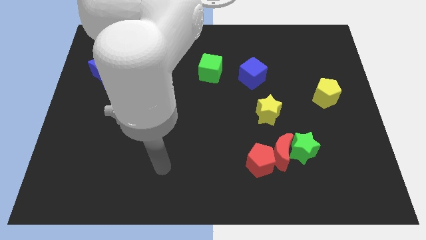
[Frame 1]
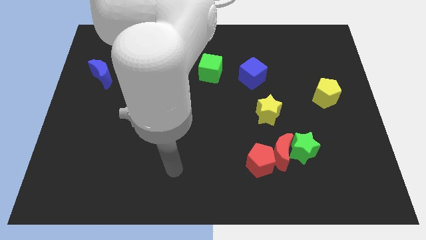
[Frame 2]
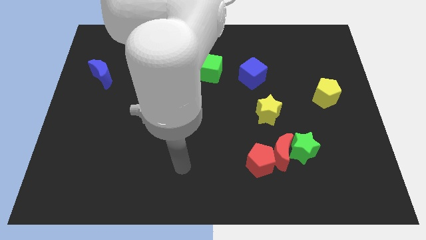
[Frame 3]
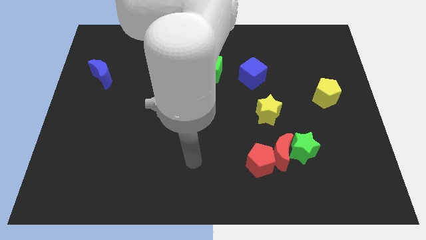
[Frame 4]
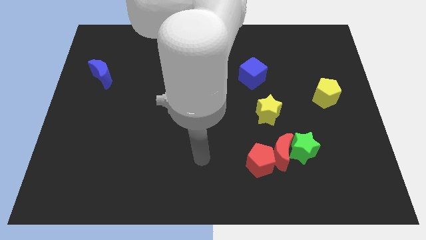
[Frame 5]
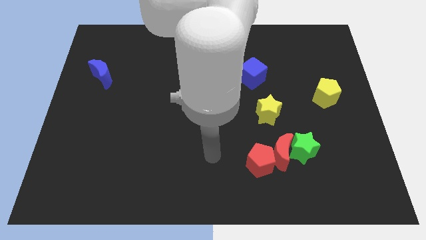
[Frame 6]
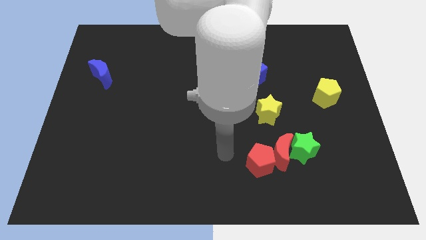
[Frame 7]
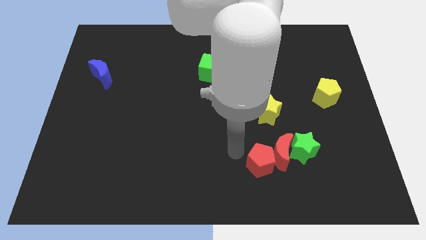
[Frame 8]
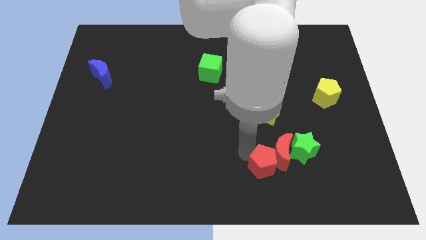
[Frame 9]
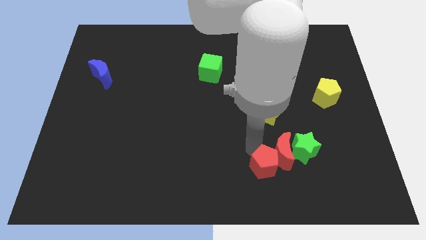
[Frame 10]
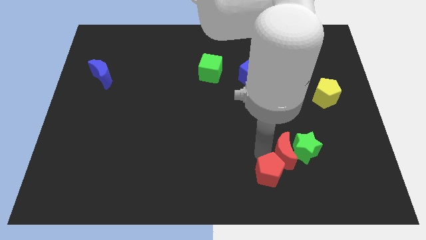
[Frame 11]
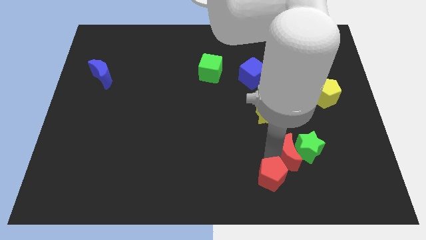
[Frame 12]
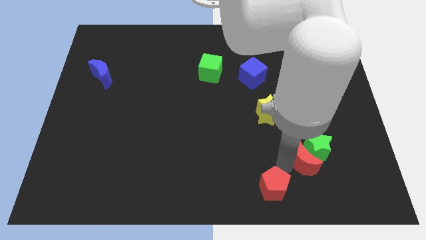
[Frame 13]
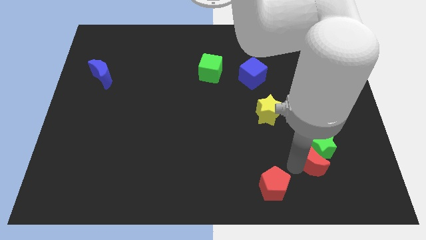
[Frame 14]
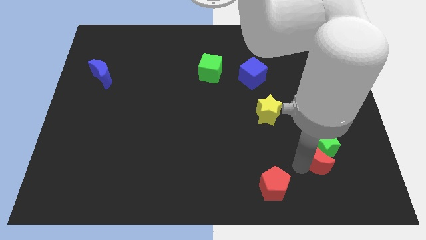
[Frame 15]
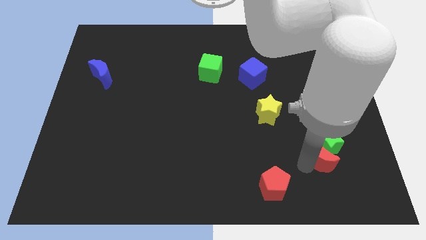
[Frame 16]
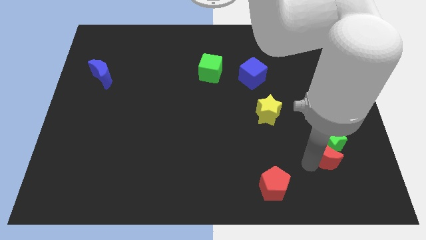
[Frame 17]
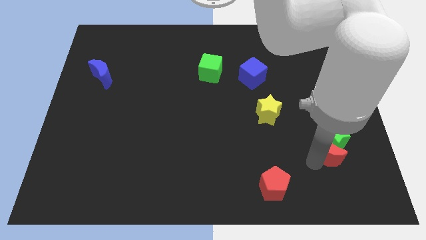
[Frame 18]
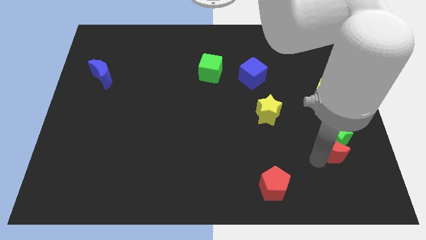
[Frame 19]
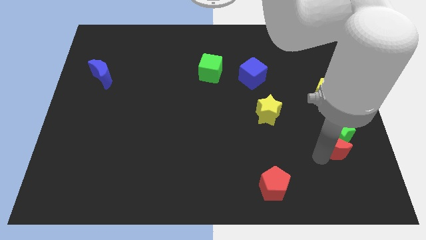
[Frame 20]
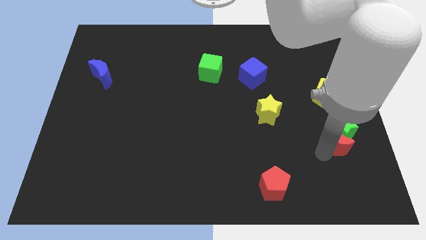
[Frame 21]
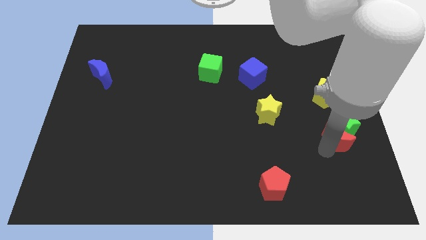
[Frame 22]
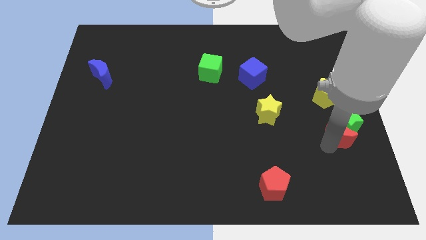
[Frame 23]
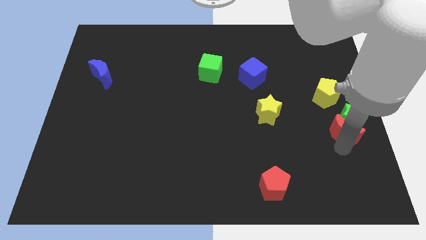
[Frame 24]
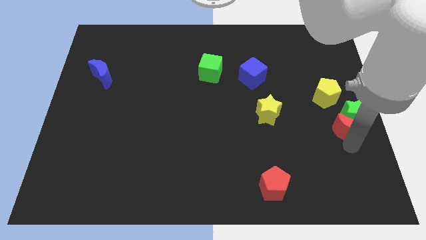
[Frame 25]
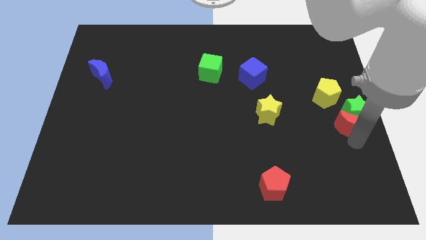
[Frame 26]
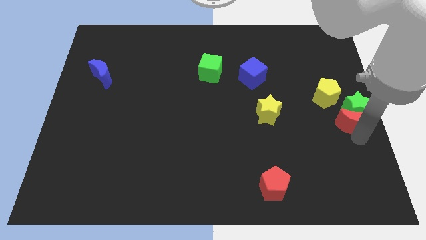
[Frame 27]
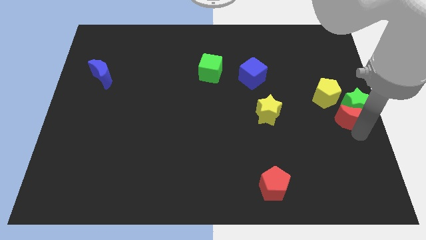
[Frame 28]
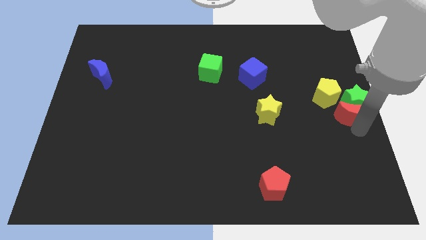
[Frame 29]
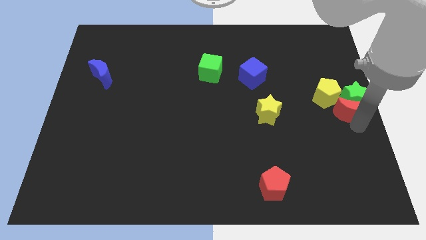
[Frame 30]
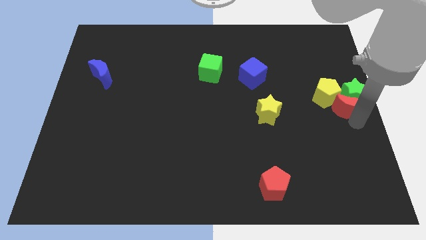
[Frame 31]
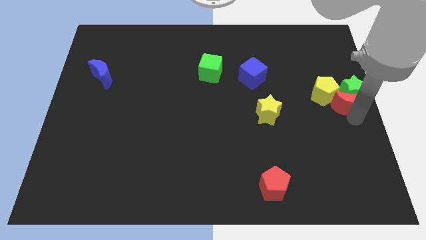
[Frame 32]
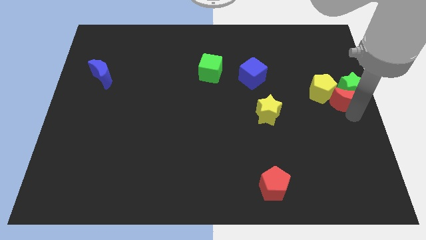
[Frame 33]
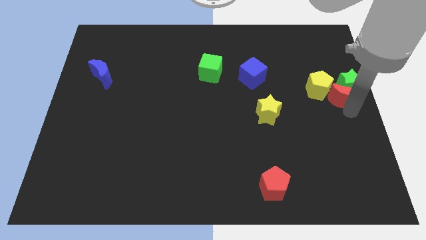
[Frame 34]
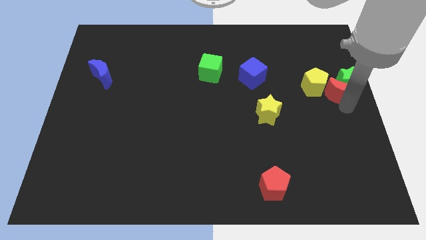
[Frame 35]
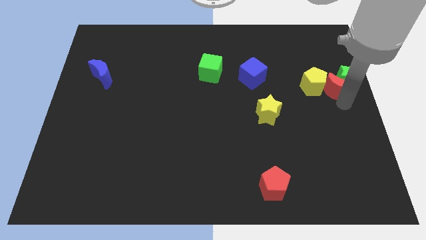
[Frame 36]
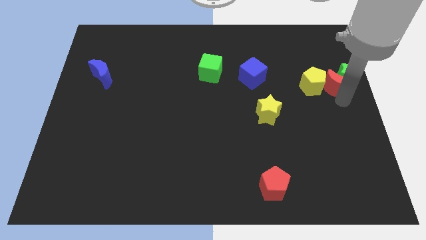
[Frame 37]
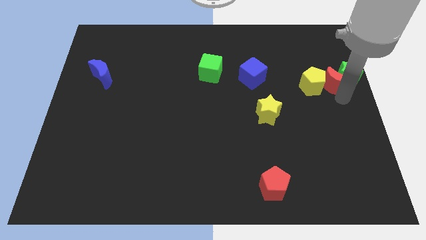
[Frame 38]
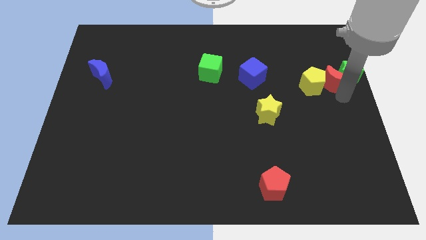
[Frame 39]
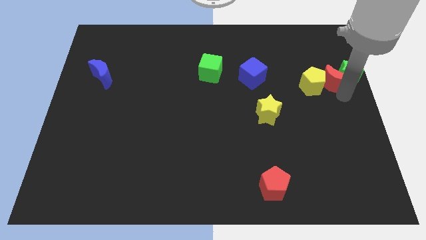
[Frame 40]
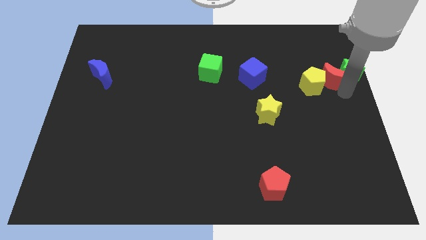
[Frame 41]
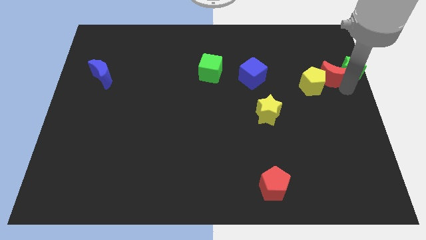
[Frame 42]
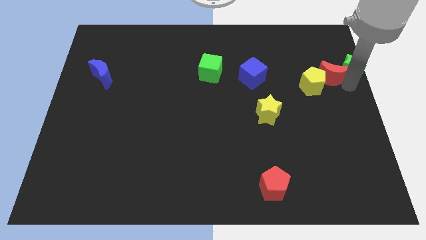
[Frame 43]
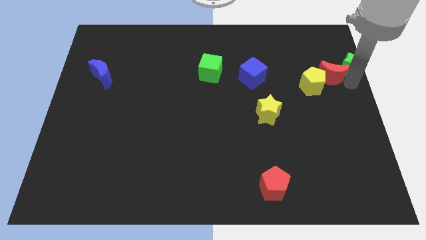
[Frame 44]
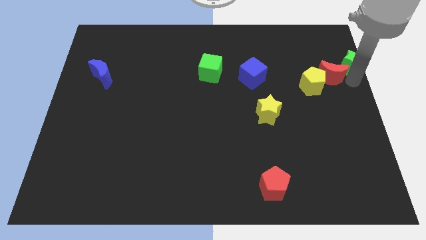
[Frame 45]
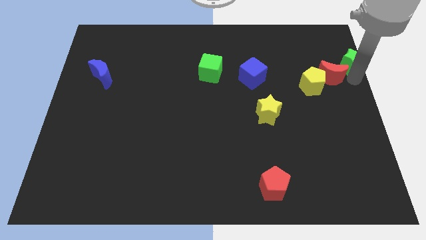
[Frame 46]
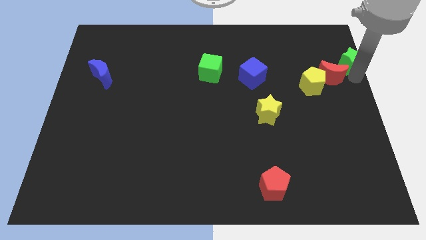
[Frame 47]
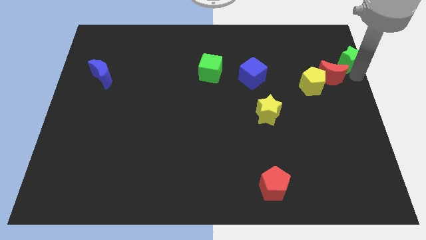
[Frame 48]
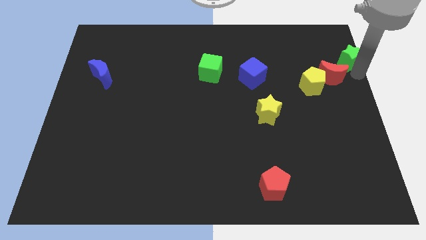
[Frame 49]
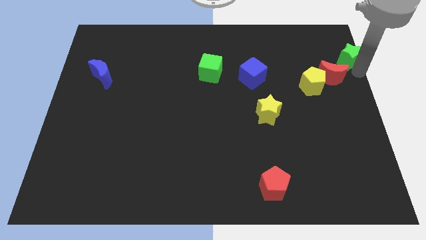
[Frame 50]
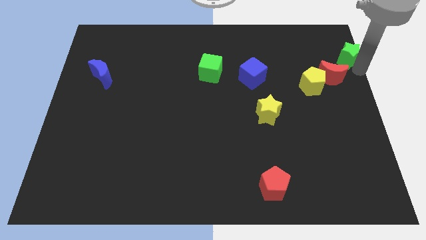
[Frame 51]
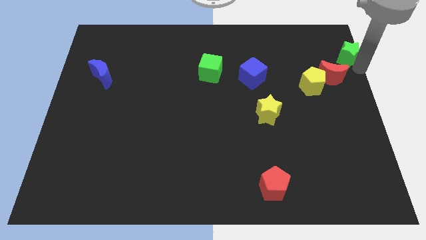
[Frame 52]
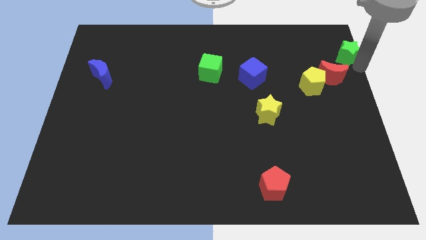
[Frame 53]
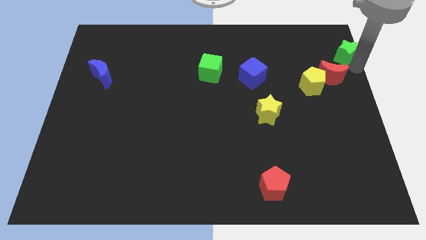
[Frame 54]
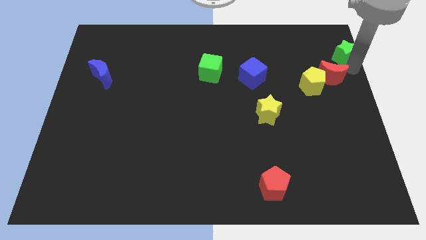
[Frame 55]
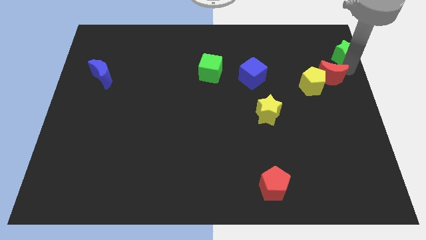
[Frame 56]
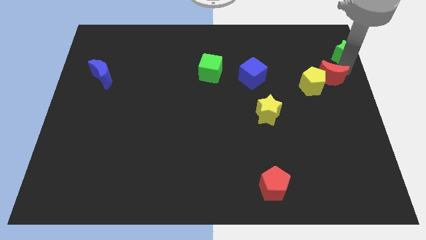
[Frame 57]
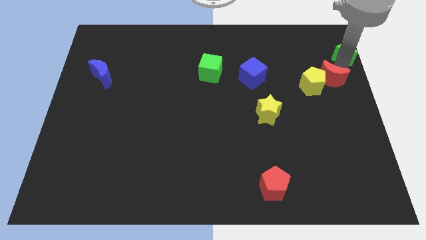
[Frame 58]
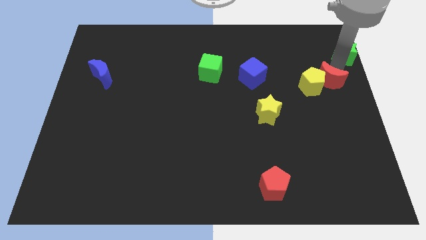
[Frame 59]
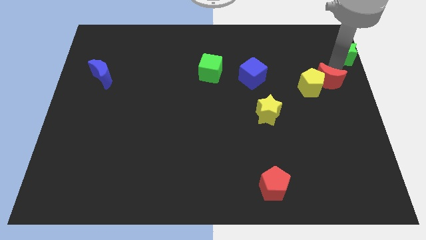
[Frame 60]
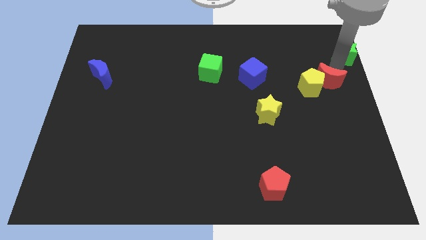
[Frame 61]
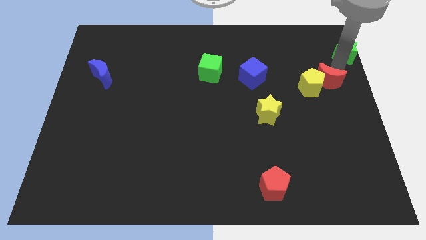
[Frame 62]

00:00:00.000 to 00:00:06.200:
push the green star to the top right

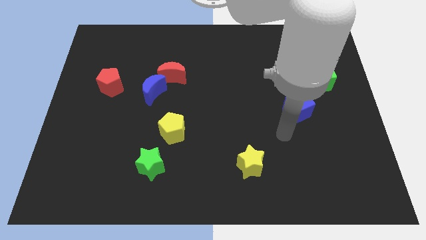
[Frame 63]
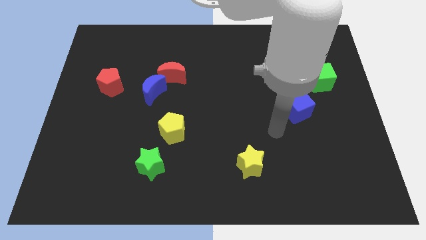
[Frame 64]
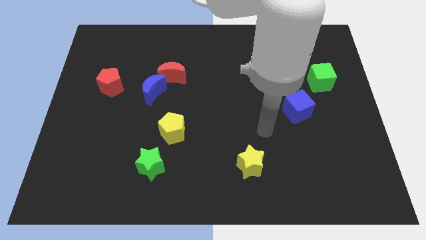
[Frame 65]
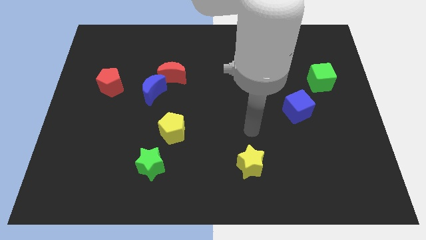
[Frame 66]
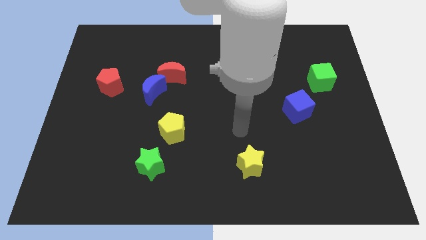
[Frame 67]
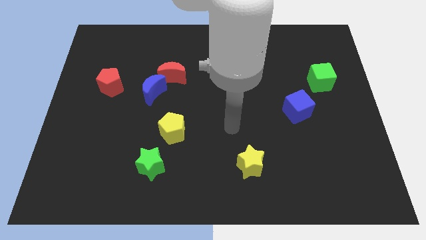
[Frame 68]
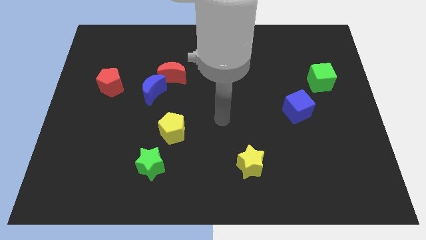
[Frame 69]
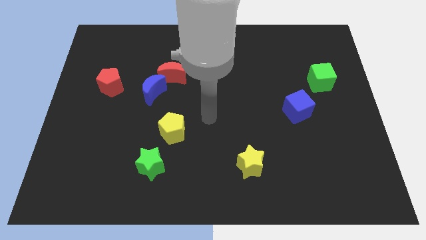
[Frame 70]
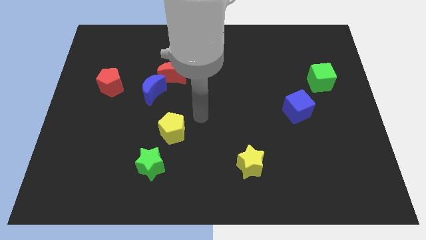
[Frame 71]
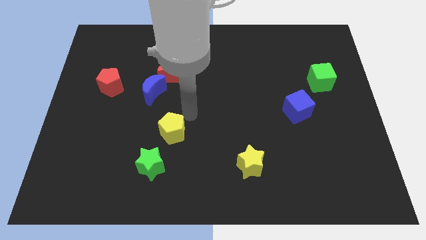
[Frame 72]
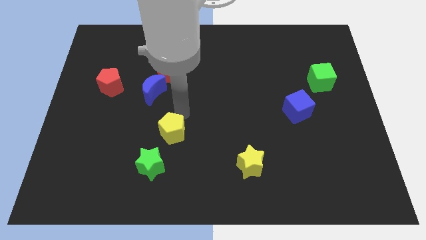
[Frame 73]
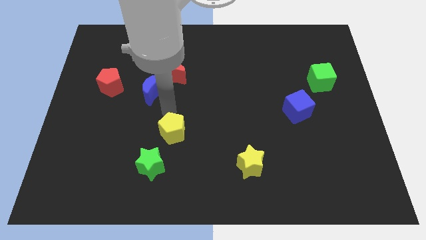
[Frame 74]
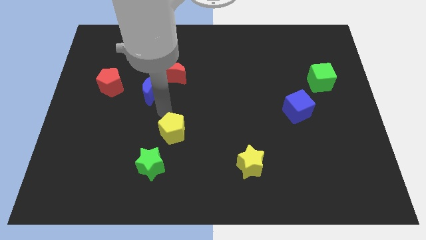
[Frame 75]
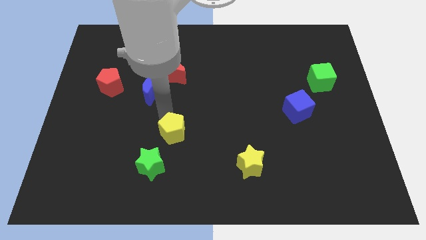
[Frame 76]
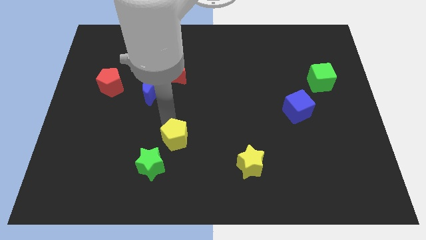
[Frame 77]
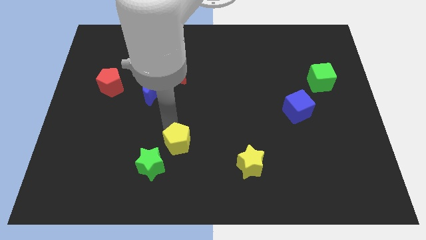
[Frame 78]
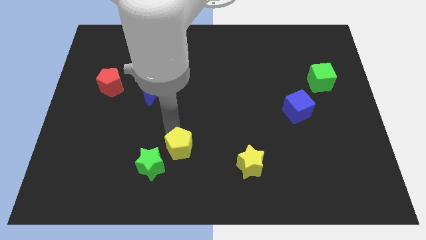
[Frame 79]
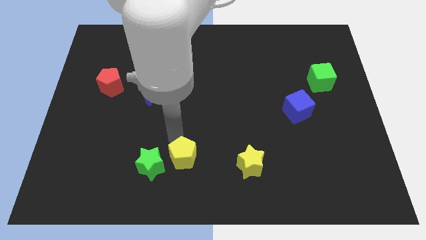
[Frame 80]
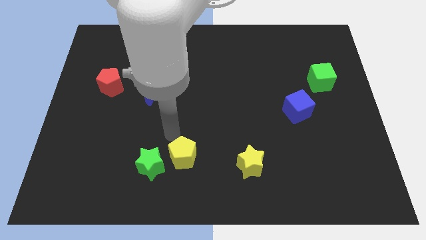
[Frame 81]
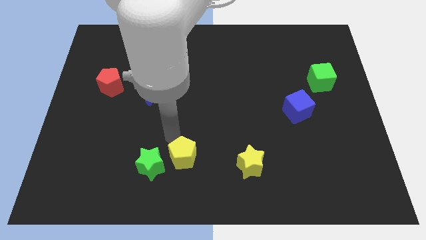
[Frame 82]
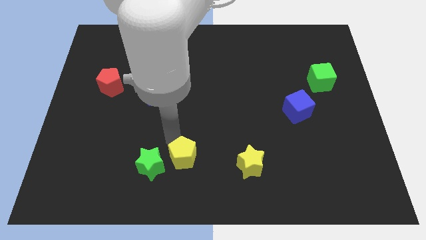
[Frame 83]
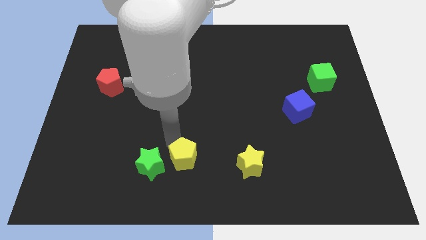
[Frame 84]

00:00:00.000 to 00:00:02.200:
push the yellow pentagon to the bottom
